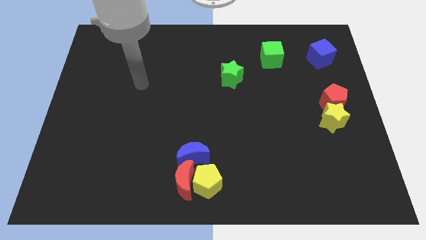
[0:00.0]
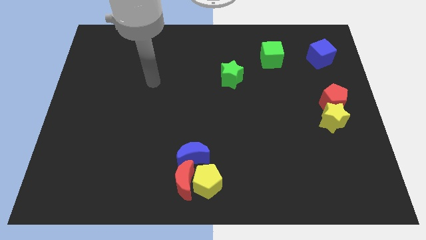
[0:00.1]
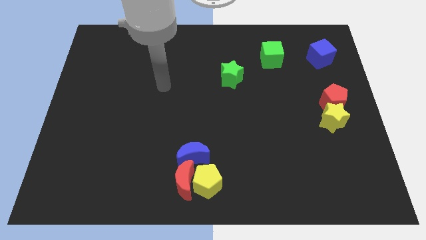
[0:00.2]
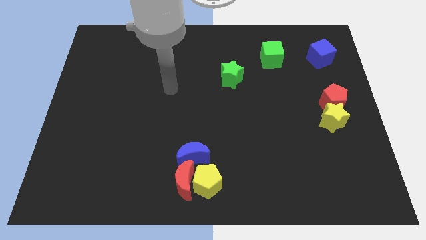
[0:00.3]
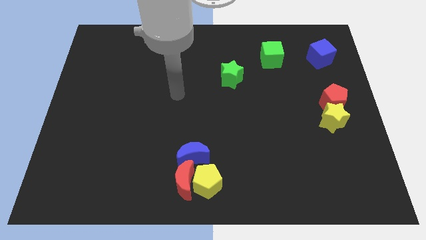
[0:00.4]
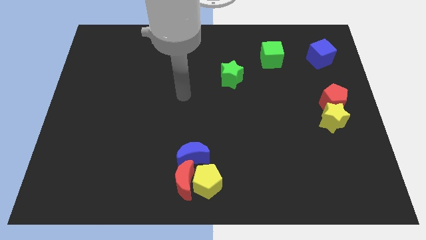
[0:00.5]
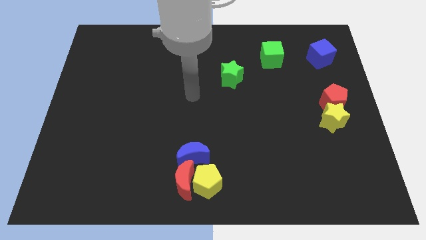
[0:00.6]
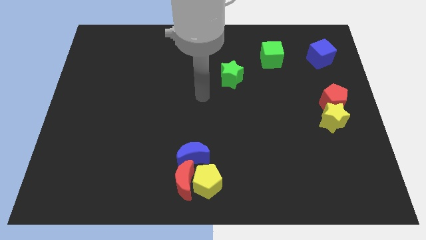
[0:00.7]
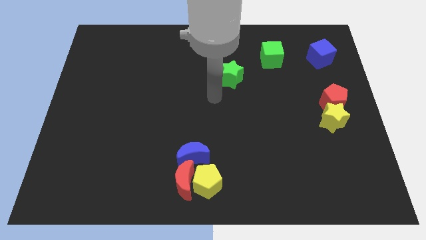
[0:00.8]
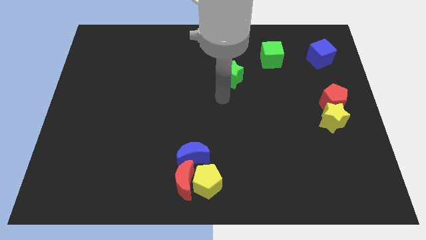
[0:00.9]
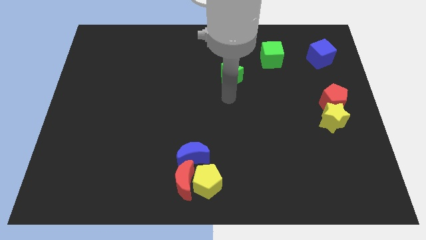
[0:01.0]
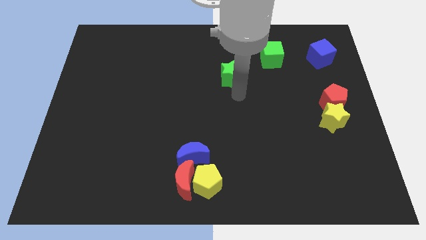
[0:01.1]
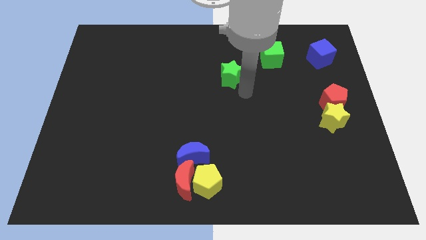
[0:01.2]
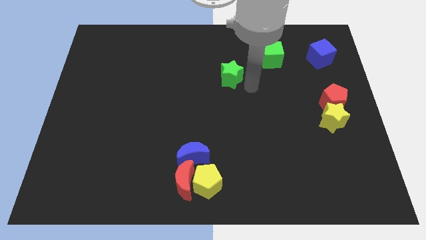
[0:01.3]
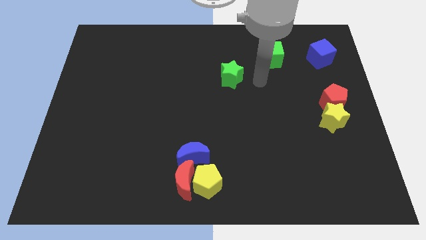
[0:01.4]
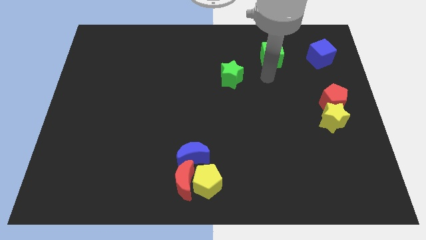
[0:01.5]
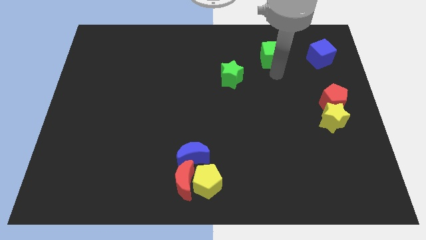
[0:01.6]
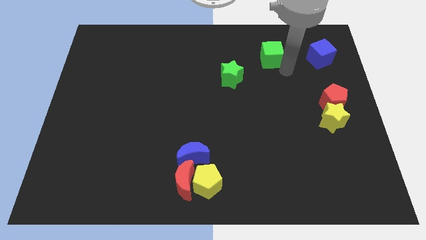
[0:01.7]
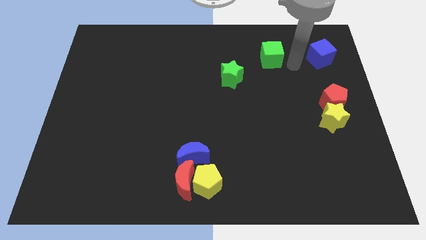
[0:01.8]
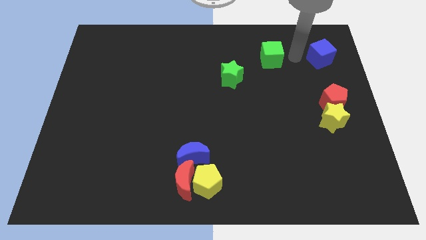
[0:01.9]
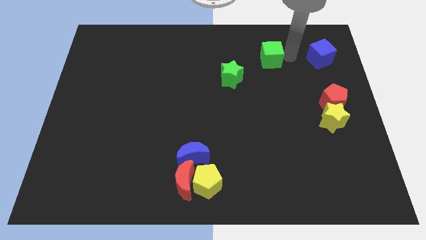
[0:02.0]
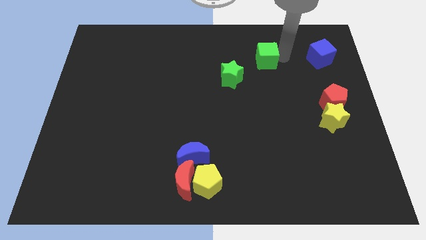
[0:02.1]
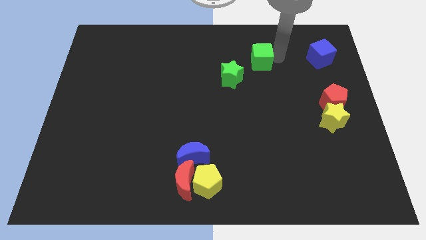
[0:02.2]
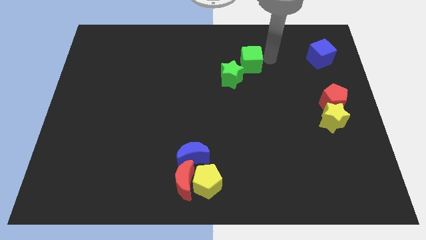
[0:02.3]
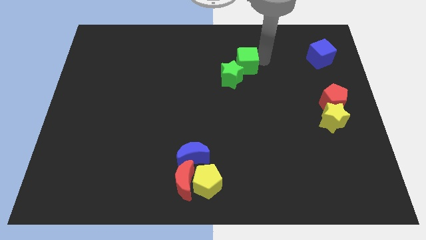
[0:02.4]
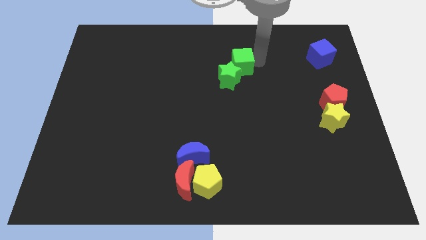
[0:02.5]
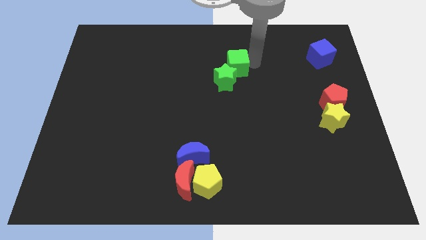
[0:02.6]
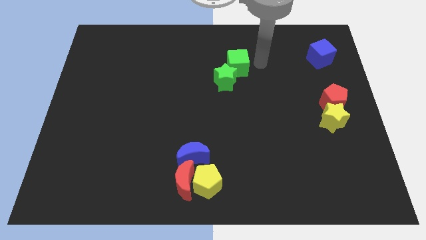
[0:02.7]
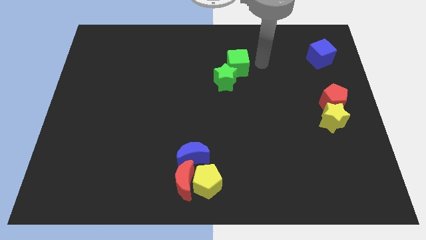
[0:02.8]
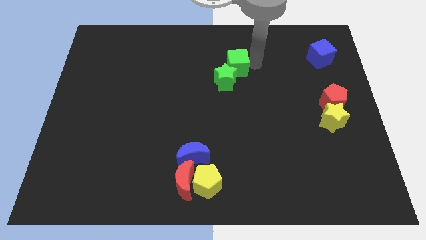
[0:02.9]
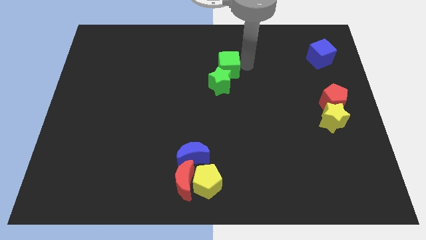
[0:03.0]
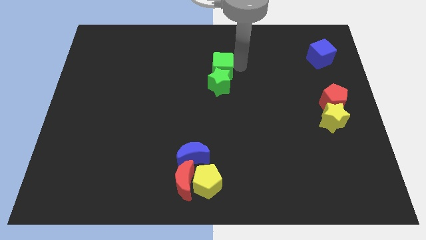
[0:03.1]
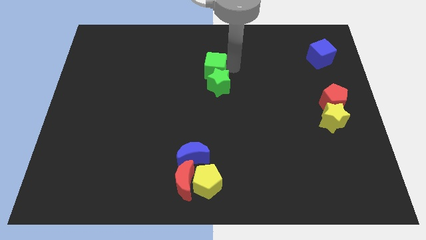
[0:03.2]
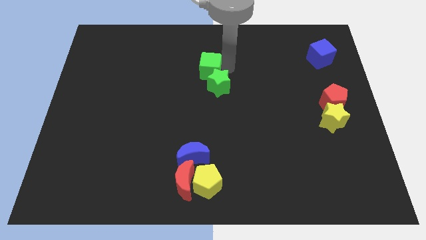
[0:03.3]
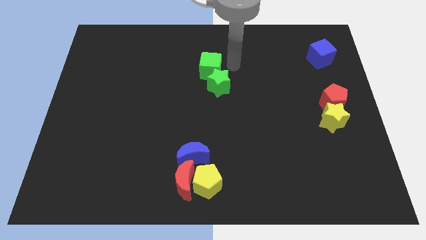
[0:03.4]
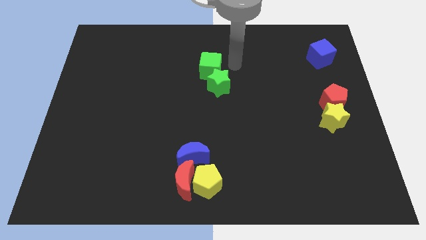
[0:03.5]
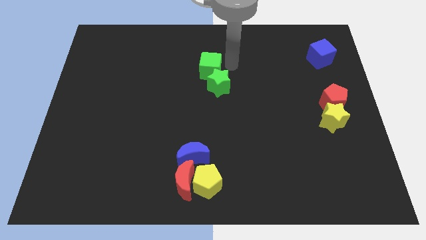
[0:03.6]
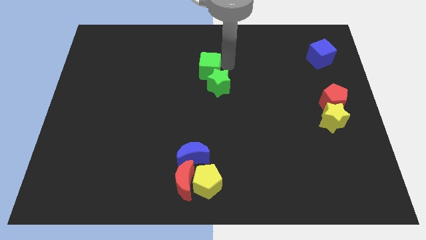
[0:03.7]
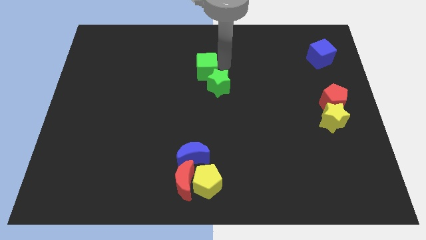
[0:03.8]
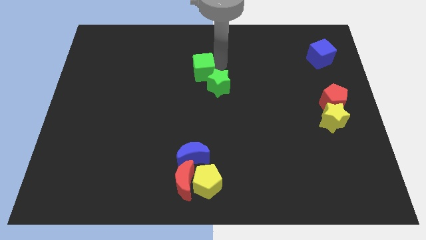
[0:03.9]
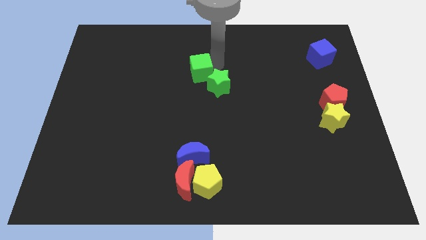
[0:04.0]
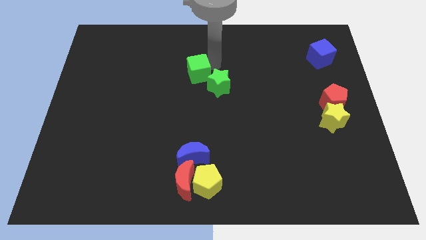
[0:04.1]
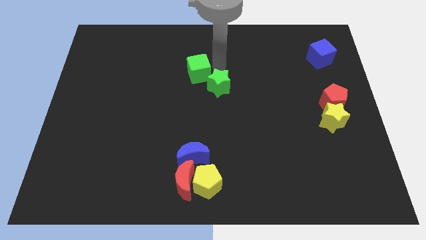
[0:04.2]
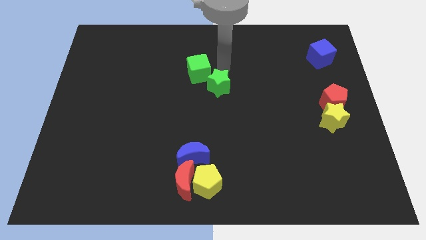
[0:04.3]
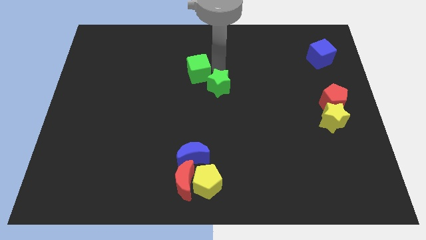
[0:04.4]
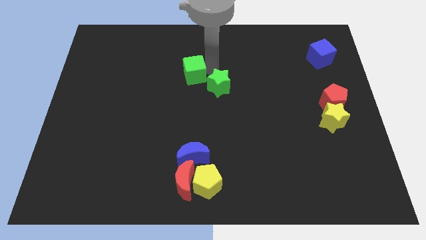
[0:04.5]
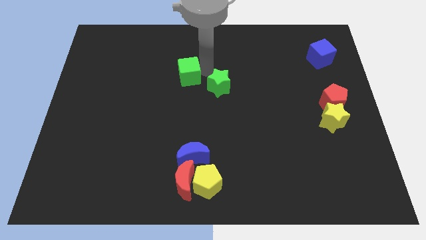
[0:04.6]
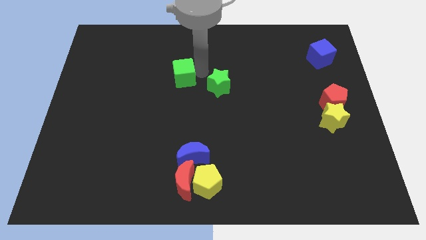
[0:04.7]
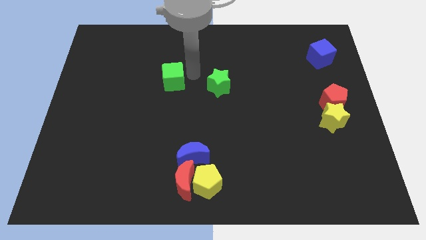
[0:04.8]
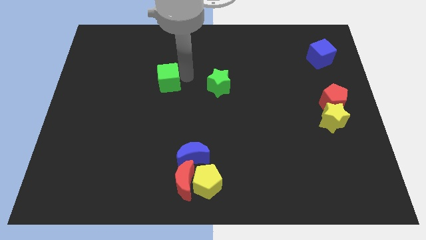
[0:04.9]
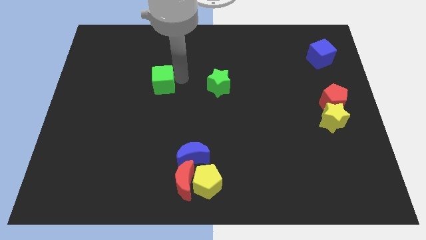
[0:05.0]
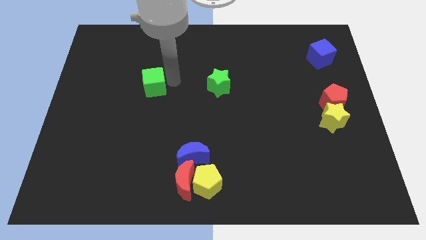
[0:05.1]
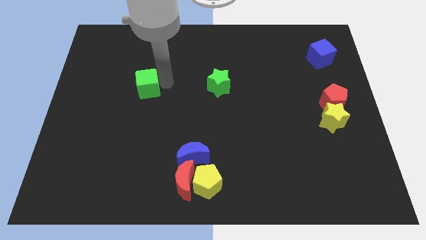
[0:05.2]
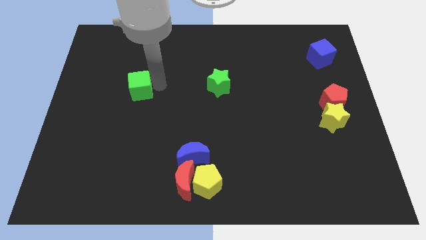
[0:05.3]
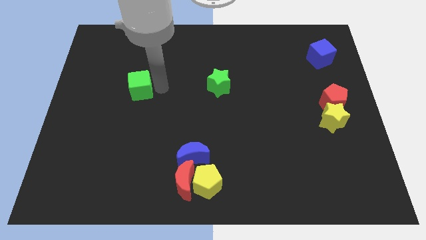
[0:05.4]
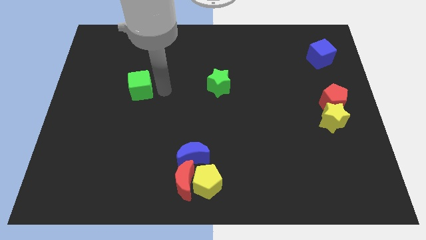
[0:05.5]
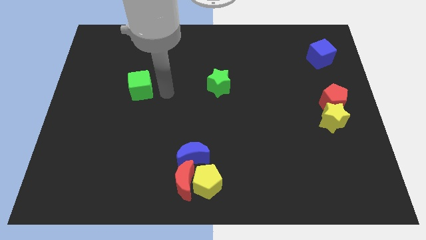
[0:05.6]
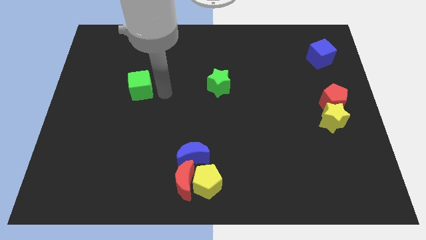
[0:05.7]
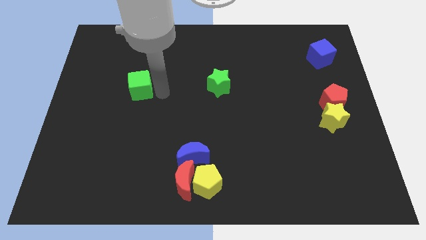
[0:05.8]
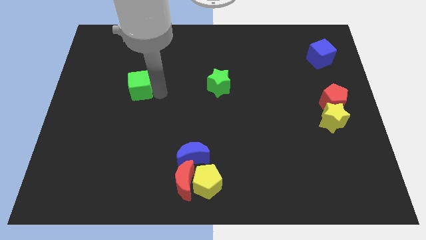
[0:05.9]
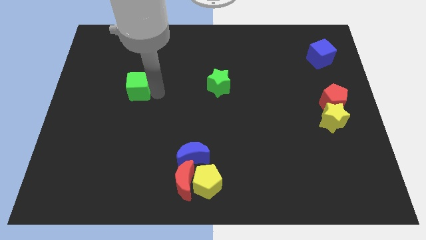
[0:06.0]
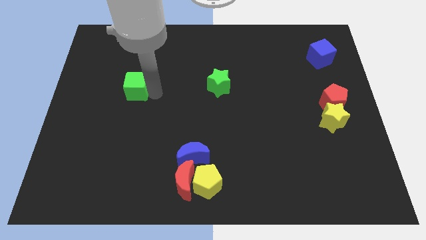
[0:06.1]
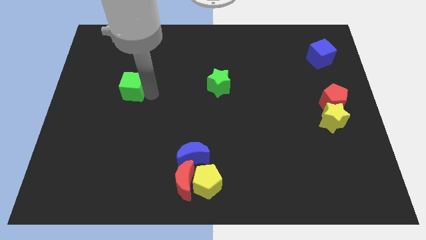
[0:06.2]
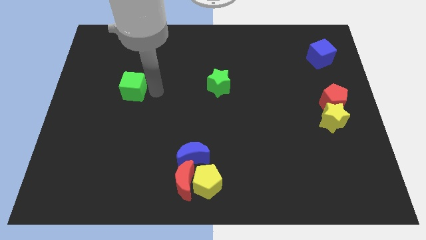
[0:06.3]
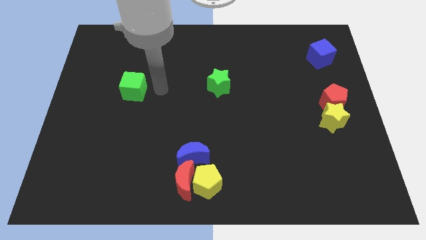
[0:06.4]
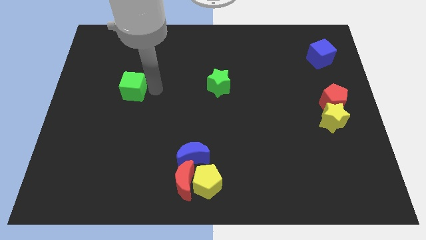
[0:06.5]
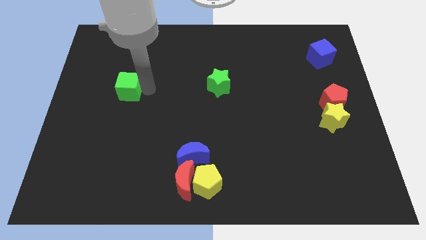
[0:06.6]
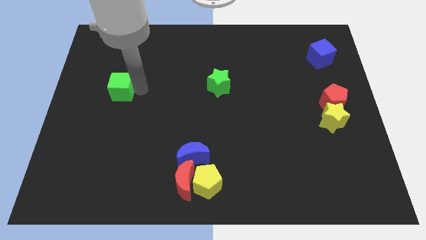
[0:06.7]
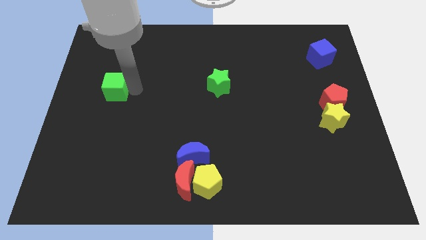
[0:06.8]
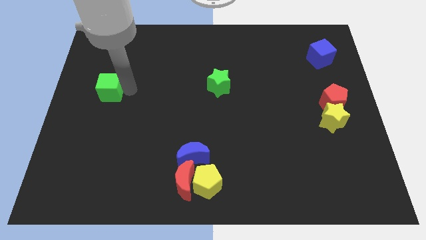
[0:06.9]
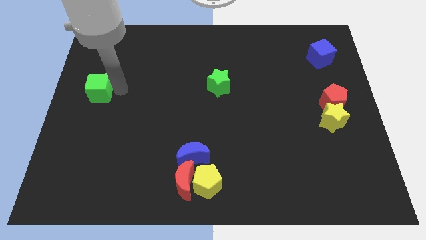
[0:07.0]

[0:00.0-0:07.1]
put the green cube to the left side of the board

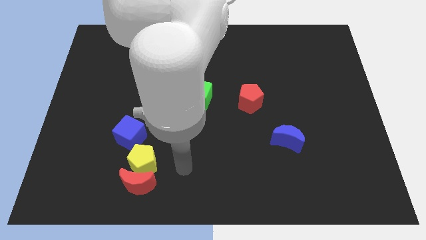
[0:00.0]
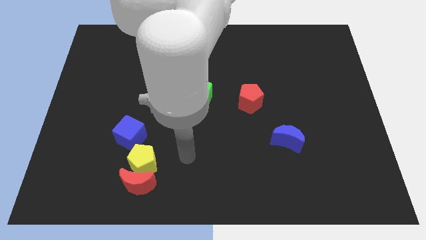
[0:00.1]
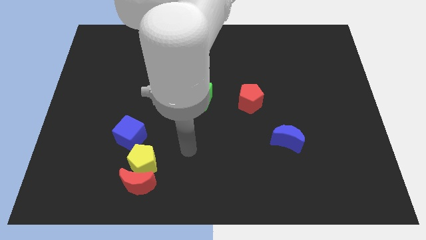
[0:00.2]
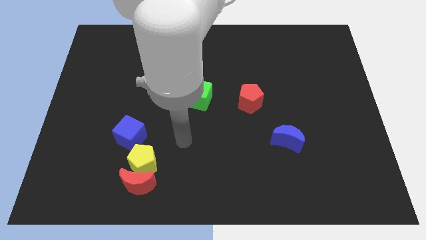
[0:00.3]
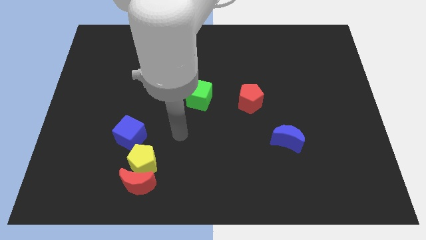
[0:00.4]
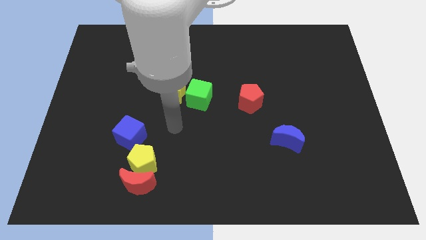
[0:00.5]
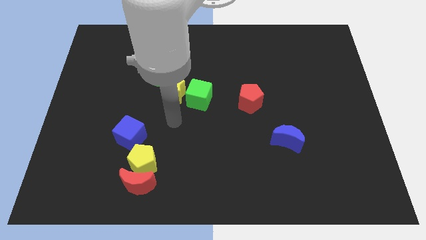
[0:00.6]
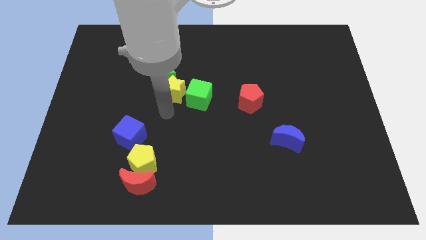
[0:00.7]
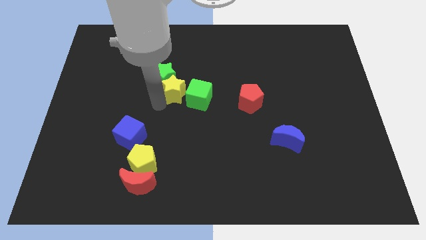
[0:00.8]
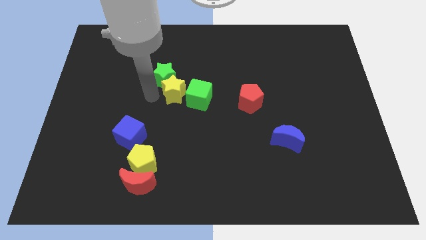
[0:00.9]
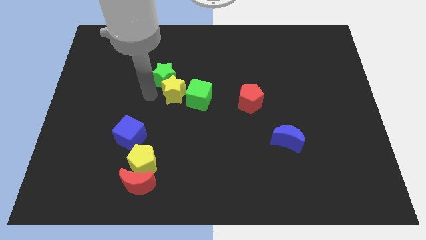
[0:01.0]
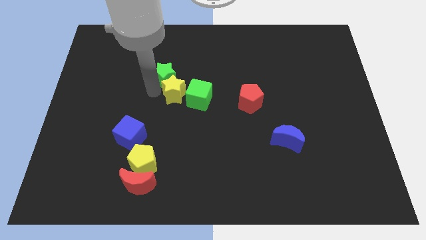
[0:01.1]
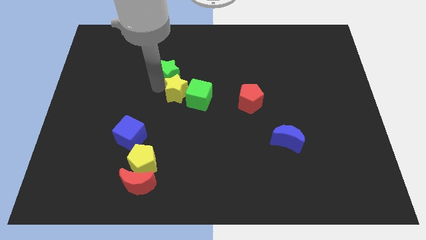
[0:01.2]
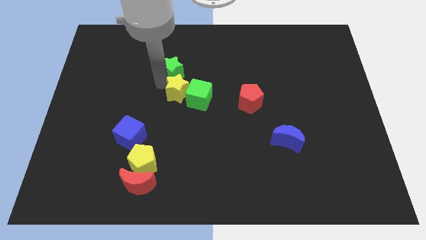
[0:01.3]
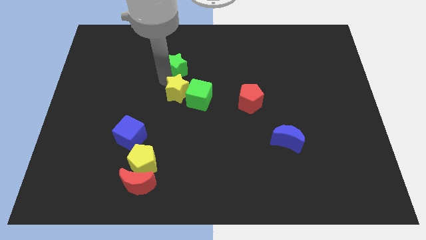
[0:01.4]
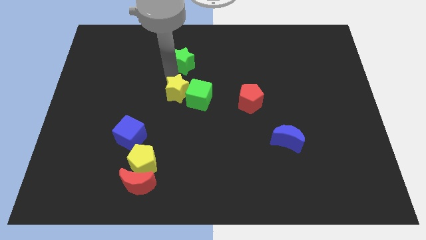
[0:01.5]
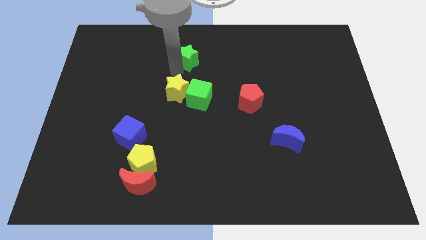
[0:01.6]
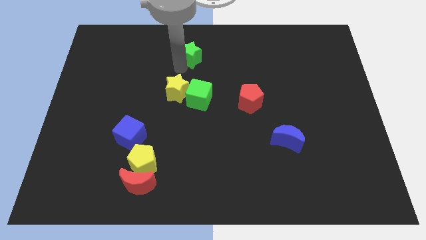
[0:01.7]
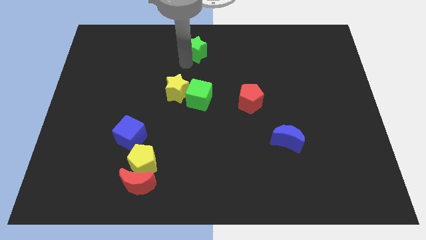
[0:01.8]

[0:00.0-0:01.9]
push the green star to the towards your base
